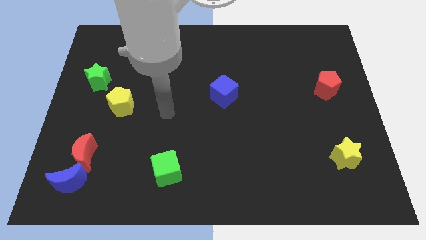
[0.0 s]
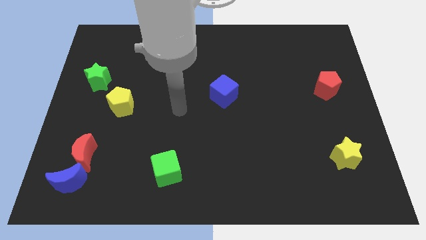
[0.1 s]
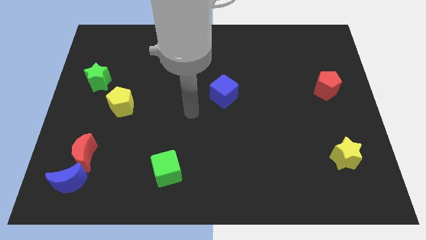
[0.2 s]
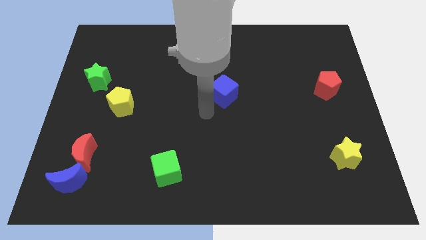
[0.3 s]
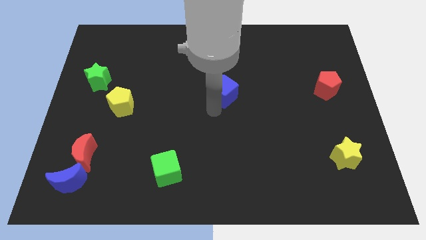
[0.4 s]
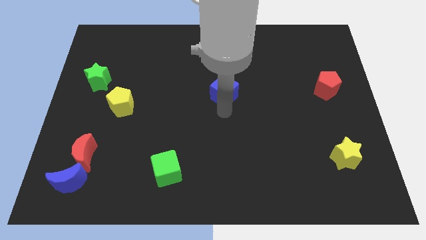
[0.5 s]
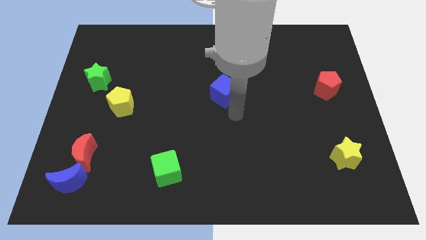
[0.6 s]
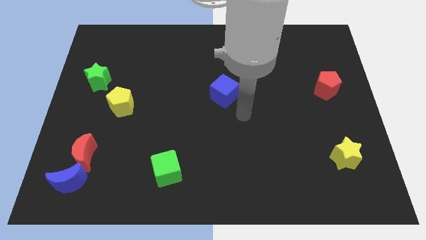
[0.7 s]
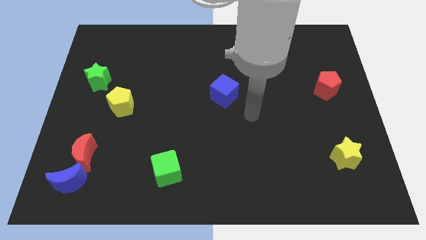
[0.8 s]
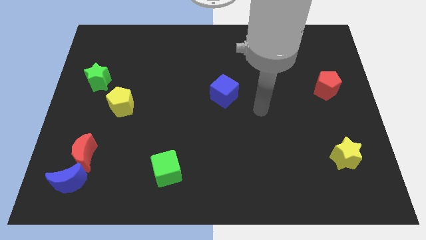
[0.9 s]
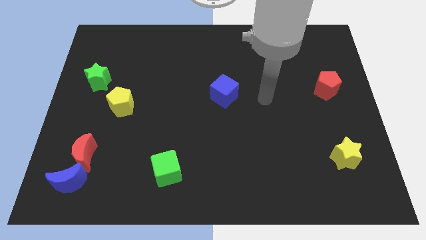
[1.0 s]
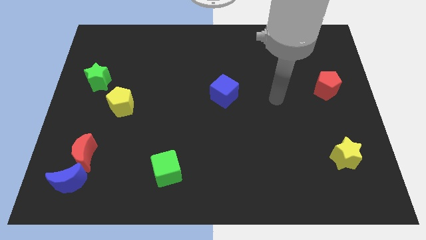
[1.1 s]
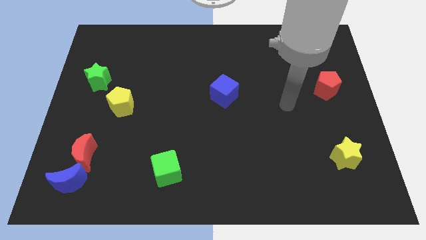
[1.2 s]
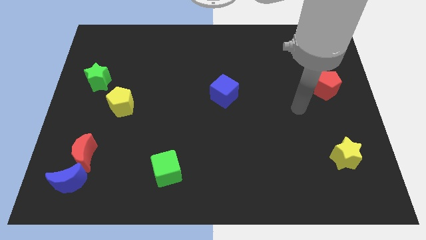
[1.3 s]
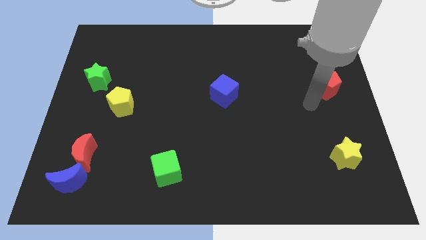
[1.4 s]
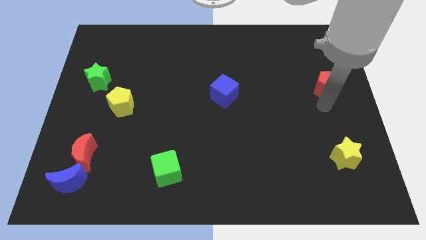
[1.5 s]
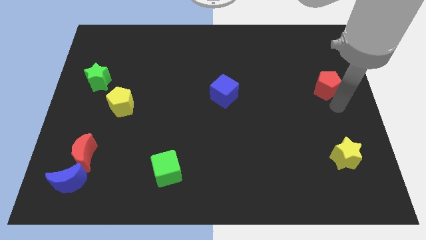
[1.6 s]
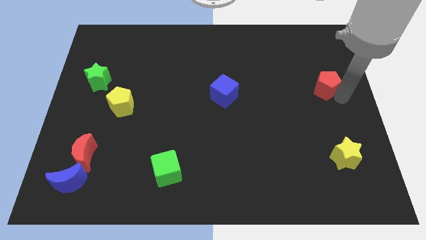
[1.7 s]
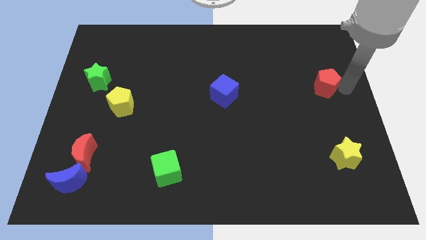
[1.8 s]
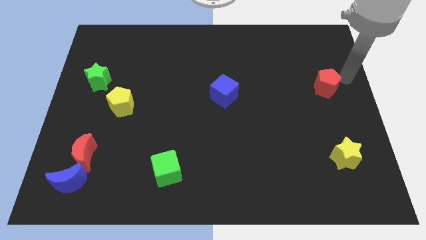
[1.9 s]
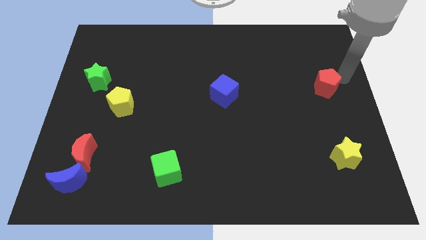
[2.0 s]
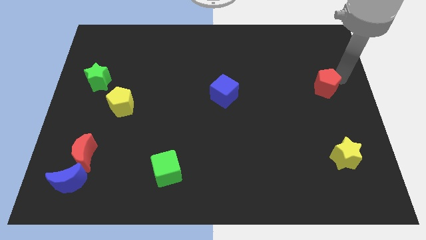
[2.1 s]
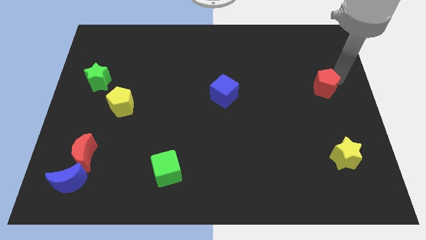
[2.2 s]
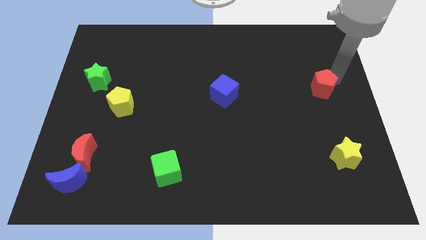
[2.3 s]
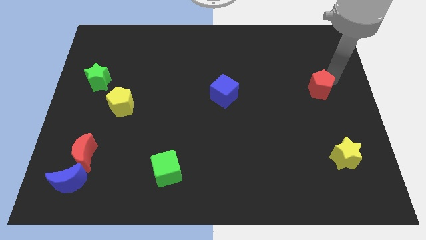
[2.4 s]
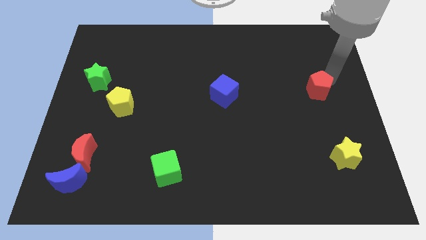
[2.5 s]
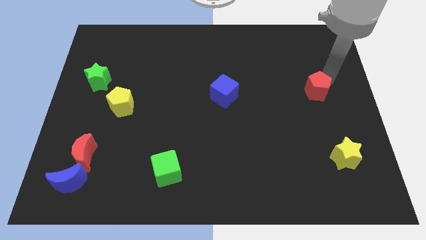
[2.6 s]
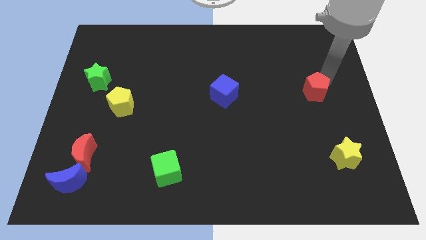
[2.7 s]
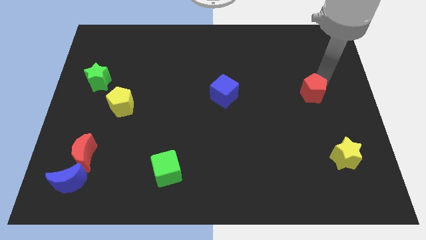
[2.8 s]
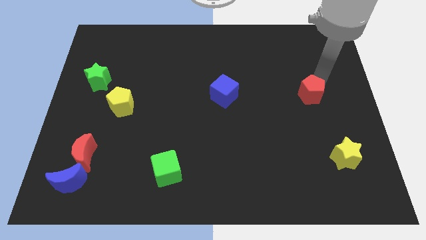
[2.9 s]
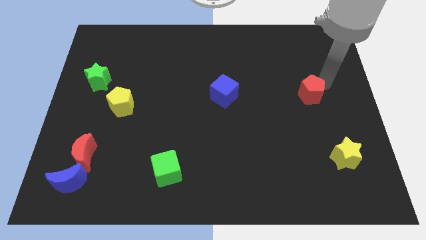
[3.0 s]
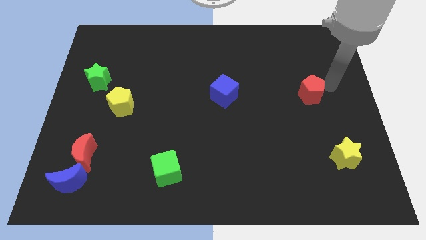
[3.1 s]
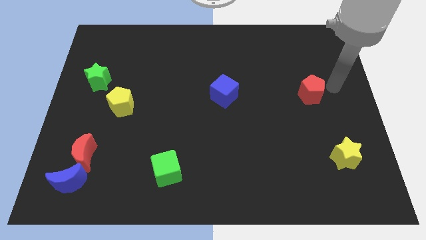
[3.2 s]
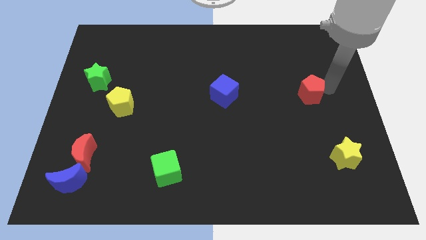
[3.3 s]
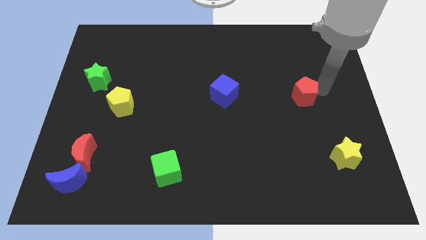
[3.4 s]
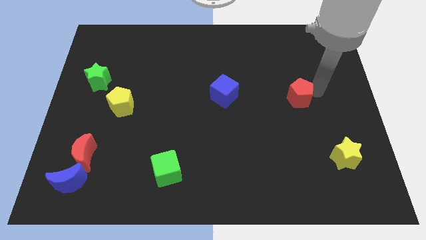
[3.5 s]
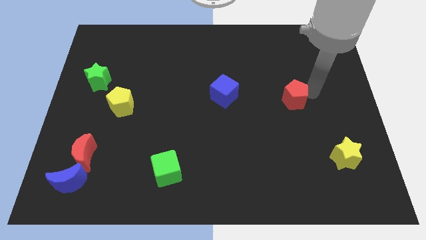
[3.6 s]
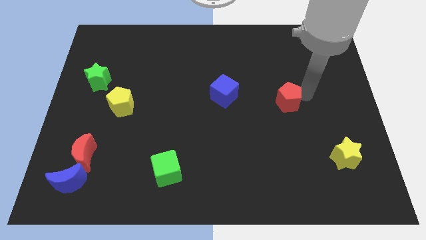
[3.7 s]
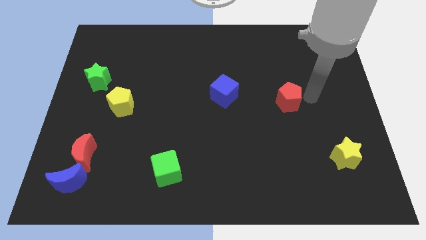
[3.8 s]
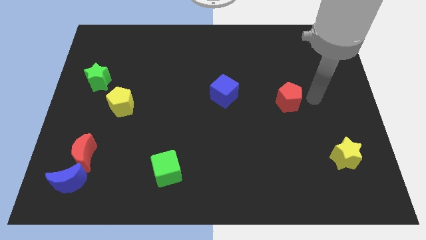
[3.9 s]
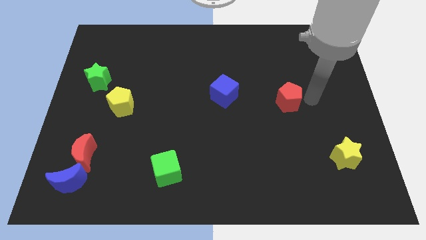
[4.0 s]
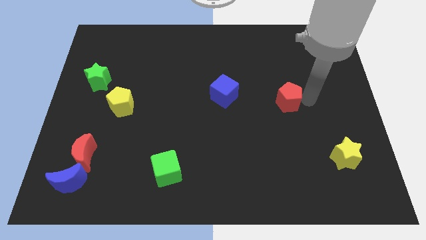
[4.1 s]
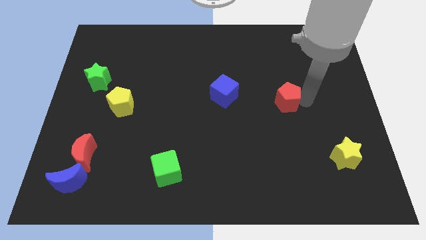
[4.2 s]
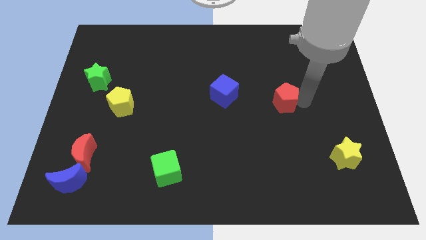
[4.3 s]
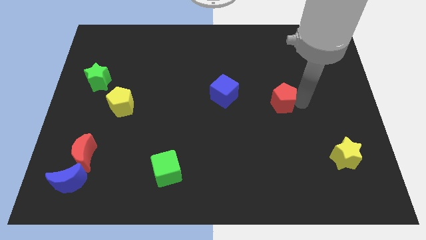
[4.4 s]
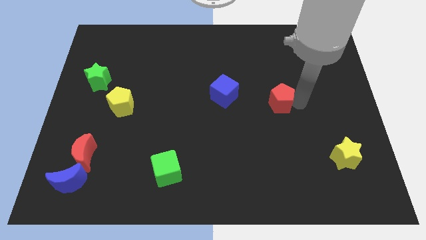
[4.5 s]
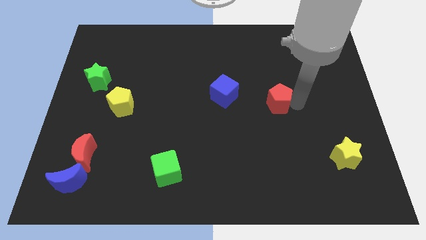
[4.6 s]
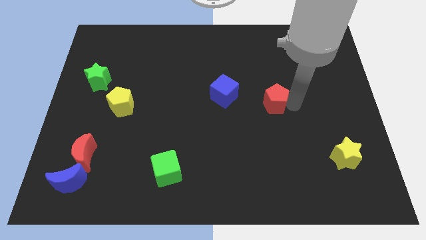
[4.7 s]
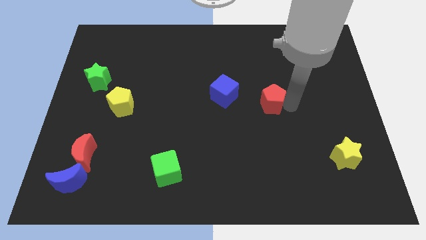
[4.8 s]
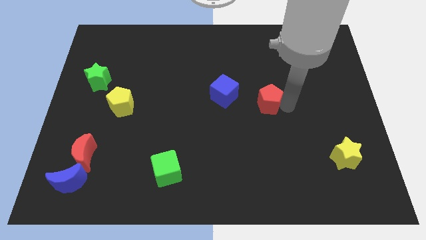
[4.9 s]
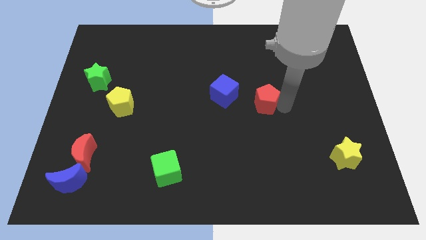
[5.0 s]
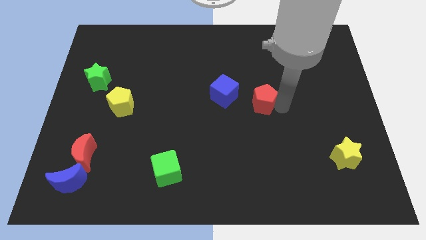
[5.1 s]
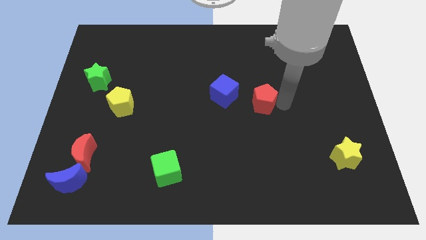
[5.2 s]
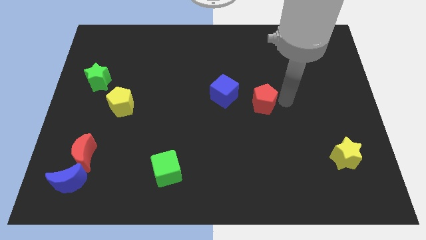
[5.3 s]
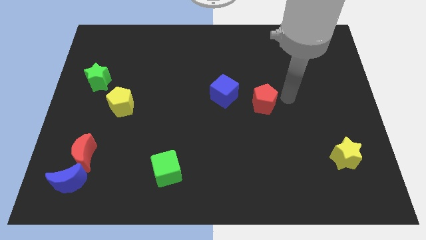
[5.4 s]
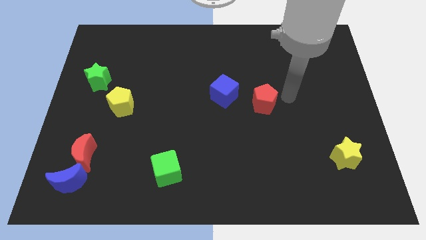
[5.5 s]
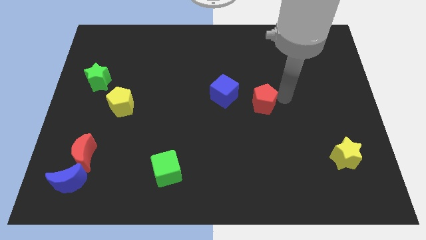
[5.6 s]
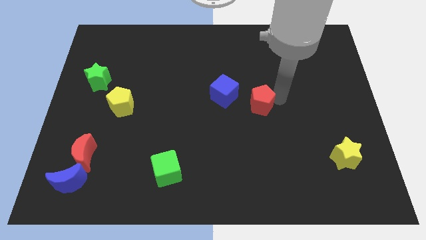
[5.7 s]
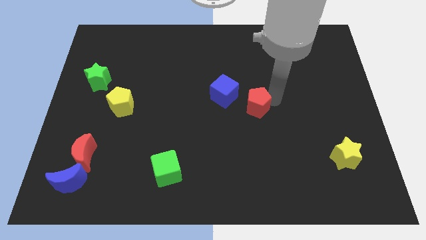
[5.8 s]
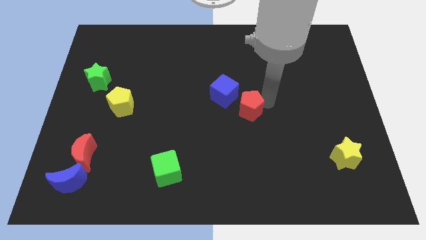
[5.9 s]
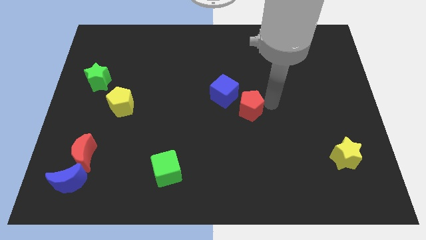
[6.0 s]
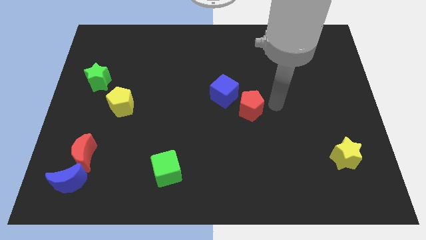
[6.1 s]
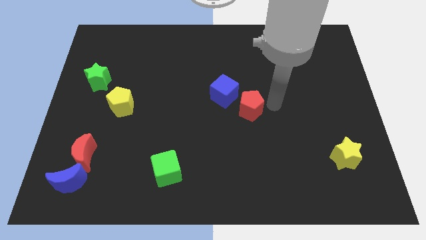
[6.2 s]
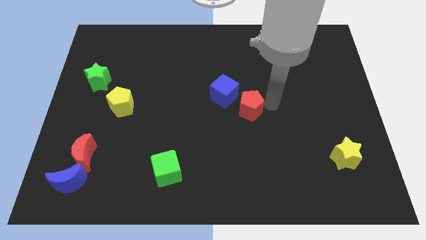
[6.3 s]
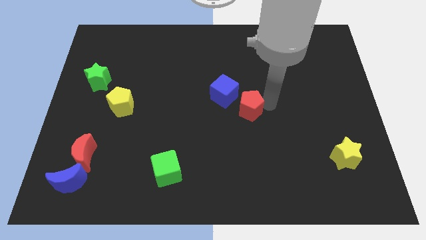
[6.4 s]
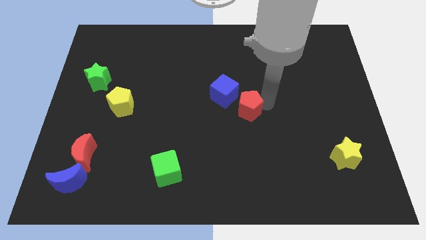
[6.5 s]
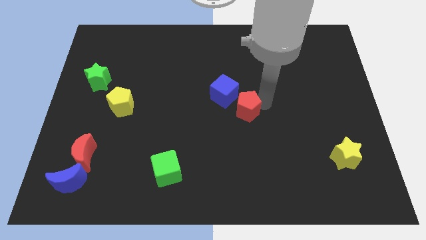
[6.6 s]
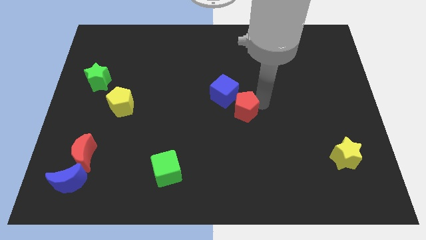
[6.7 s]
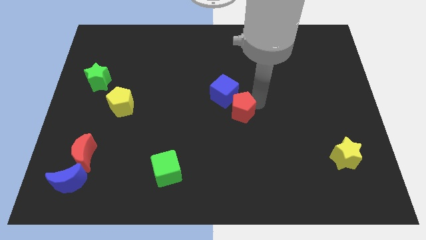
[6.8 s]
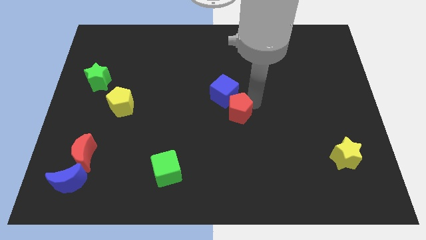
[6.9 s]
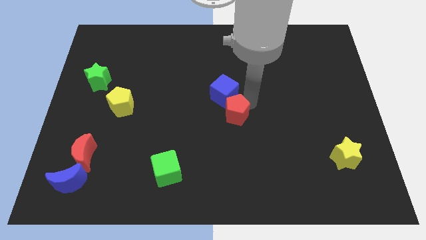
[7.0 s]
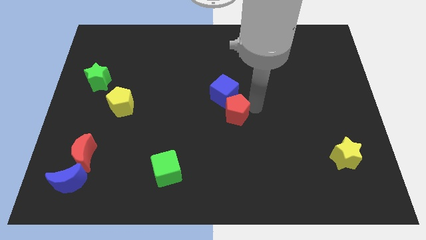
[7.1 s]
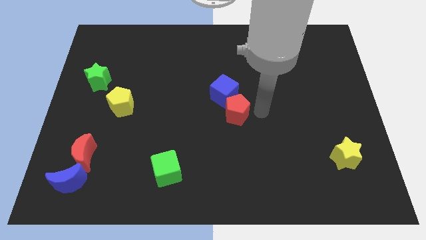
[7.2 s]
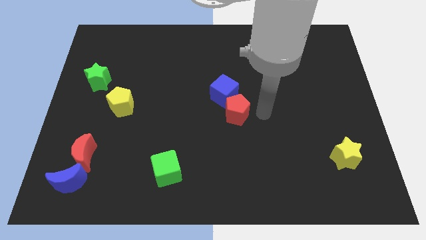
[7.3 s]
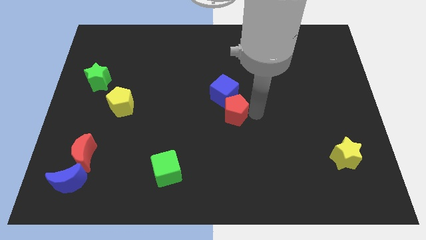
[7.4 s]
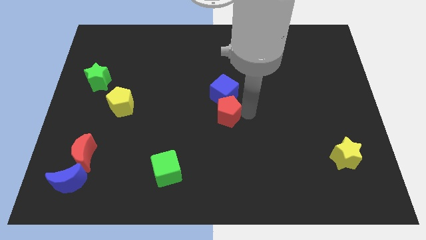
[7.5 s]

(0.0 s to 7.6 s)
put the red pentagon to the bottom left of the blue cube

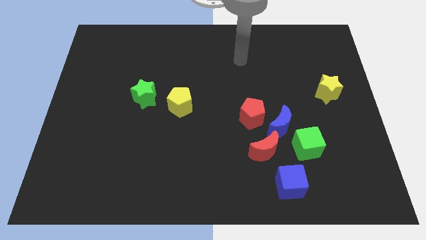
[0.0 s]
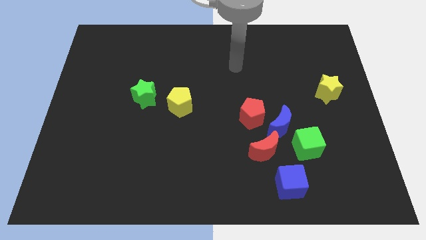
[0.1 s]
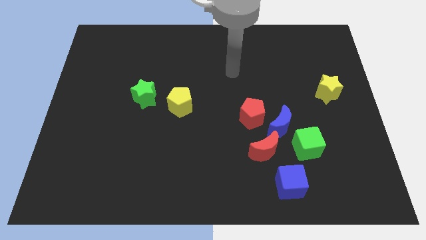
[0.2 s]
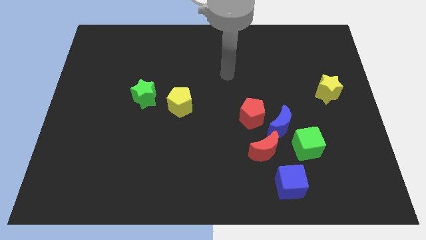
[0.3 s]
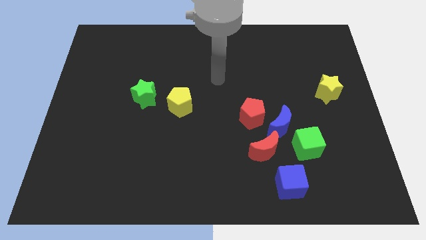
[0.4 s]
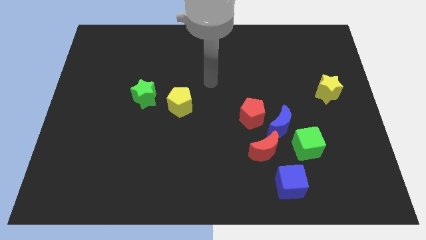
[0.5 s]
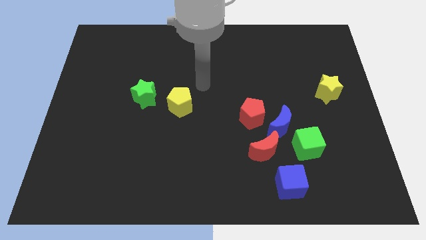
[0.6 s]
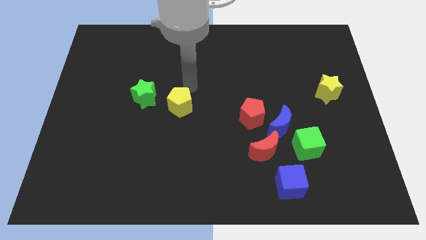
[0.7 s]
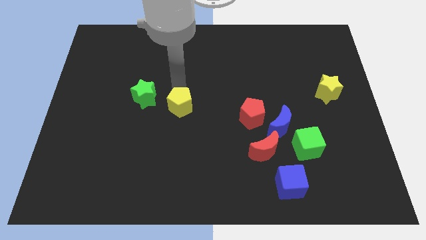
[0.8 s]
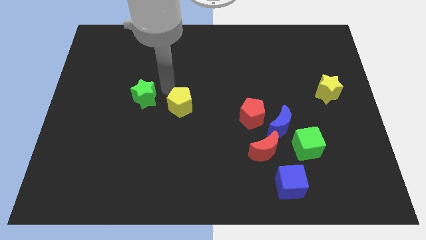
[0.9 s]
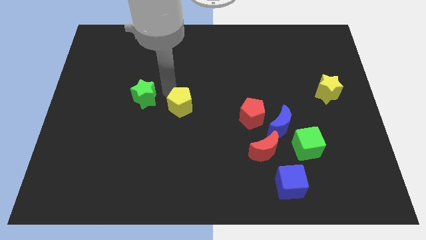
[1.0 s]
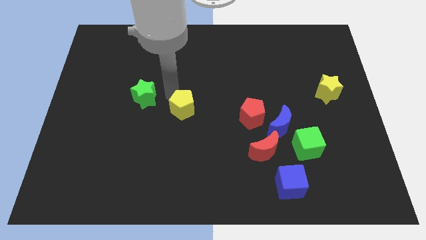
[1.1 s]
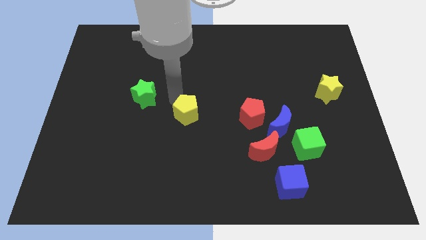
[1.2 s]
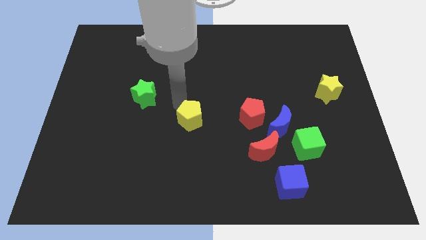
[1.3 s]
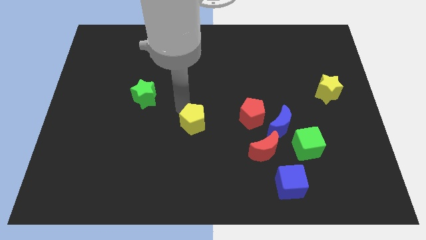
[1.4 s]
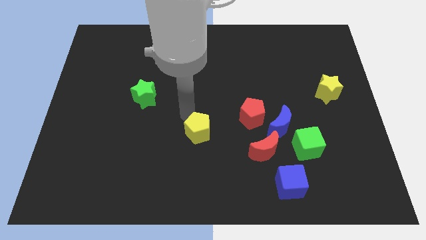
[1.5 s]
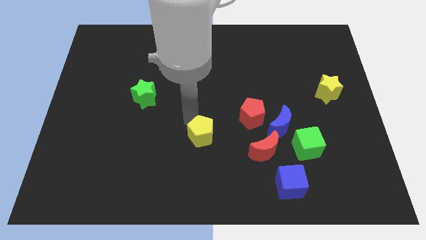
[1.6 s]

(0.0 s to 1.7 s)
push the yellow pentagon to the left of the red moon
